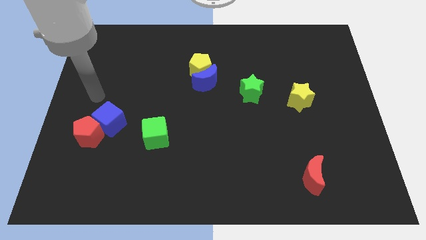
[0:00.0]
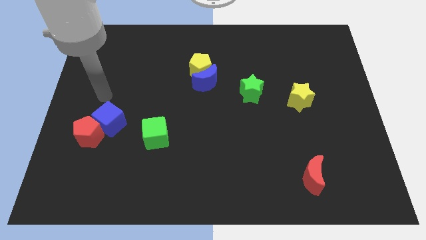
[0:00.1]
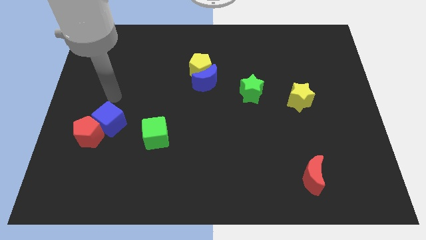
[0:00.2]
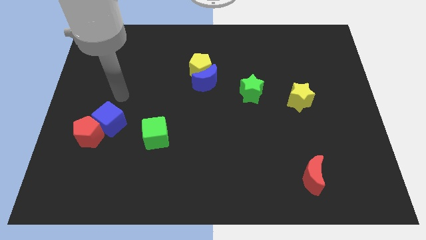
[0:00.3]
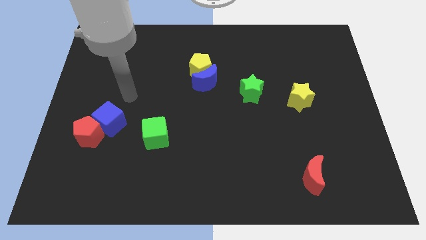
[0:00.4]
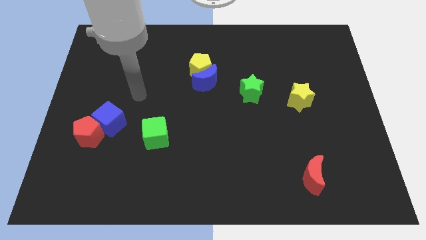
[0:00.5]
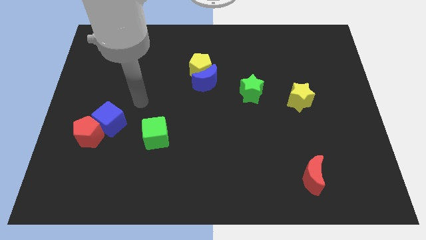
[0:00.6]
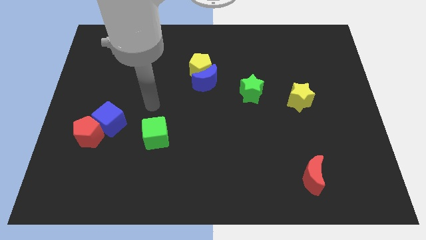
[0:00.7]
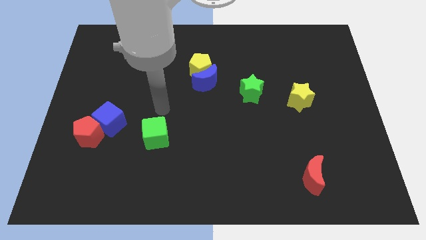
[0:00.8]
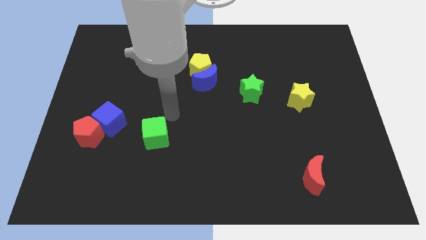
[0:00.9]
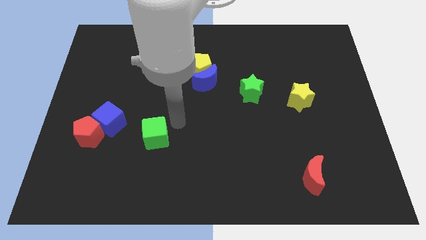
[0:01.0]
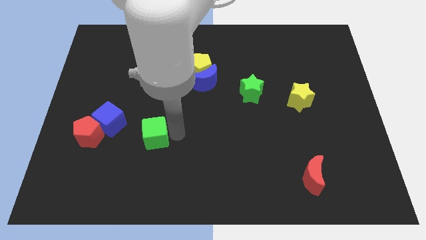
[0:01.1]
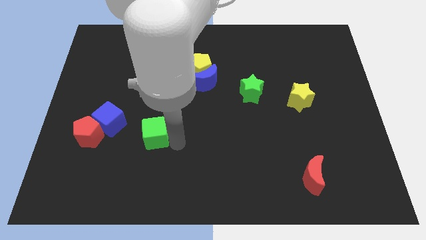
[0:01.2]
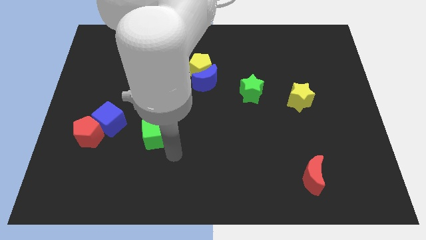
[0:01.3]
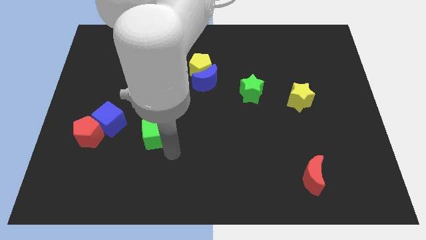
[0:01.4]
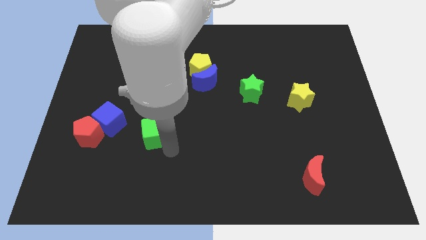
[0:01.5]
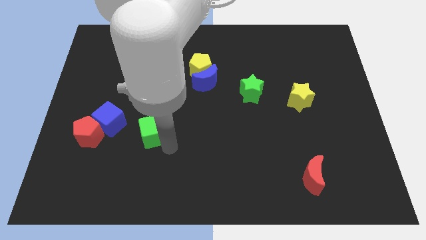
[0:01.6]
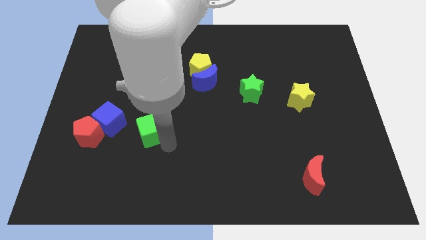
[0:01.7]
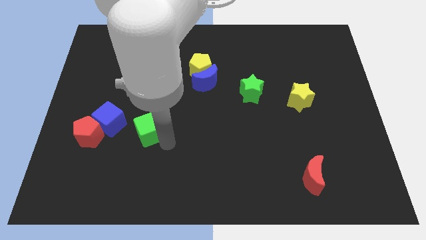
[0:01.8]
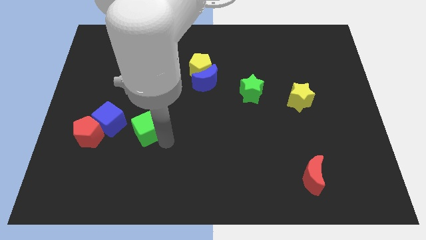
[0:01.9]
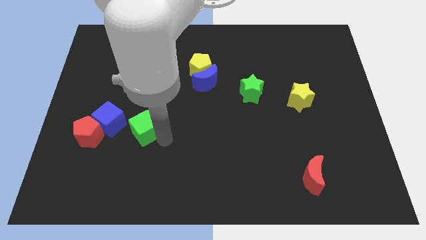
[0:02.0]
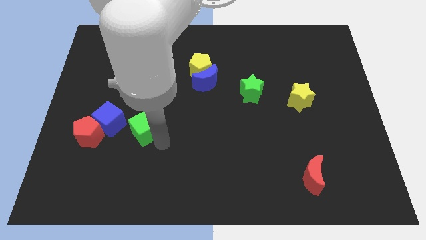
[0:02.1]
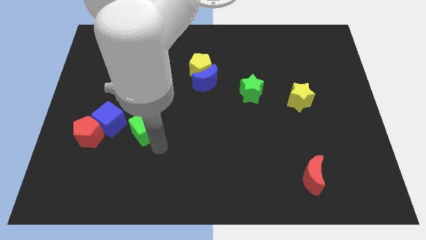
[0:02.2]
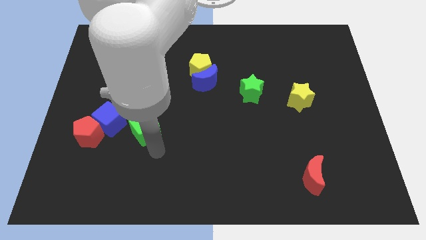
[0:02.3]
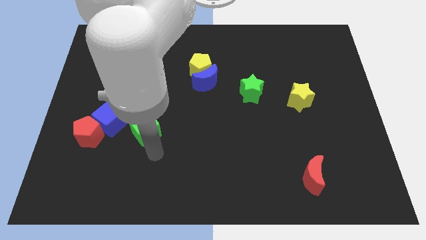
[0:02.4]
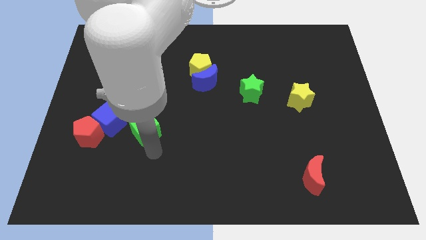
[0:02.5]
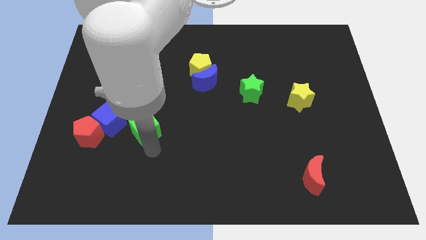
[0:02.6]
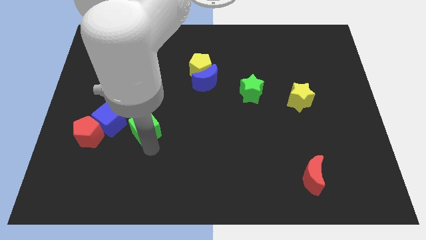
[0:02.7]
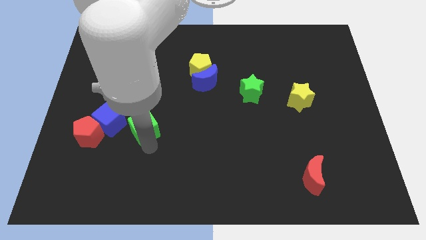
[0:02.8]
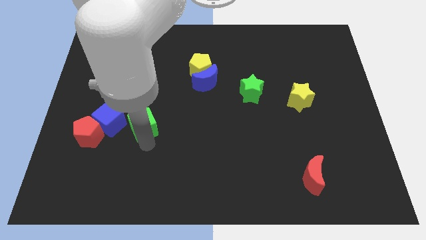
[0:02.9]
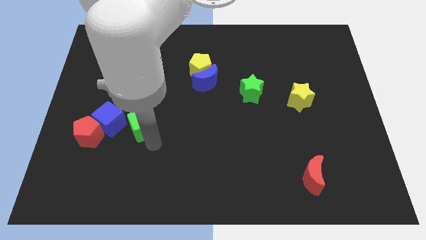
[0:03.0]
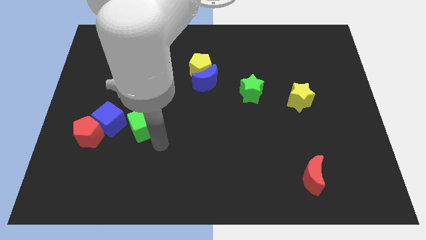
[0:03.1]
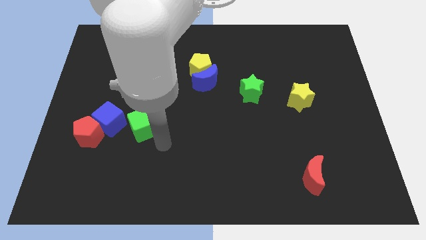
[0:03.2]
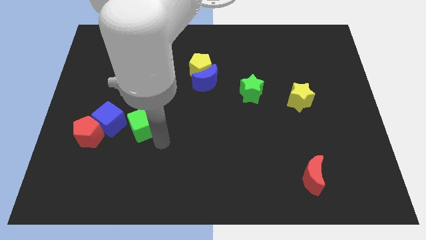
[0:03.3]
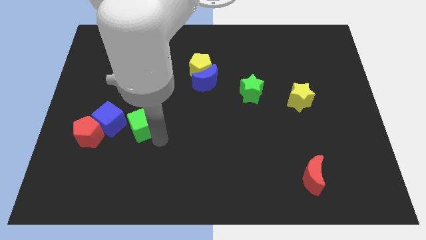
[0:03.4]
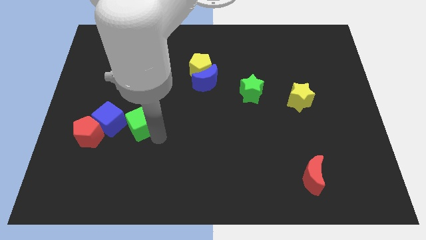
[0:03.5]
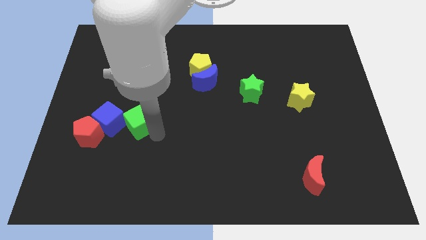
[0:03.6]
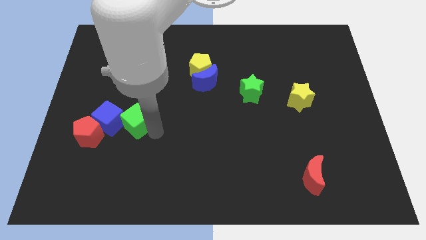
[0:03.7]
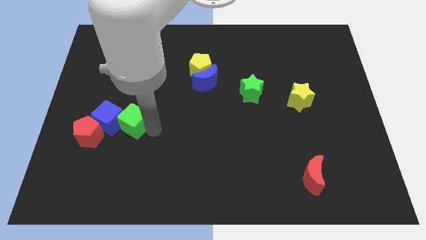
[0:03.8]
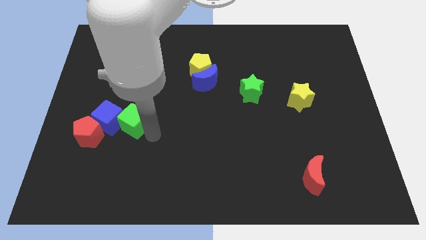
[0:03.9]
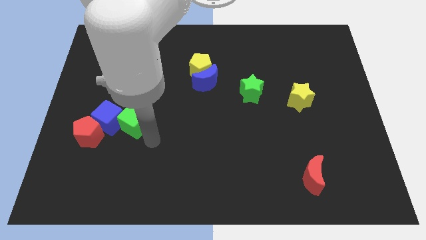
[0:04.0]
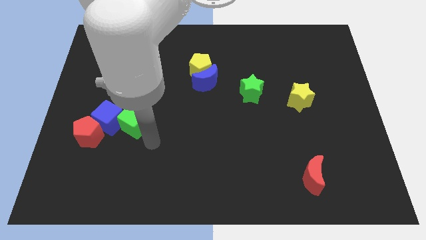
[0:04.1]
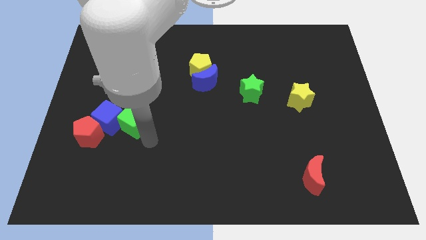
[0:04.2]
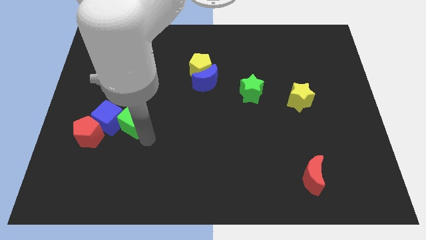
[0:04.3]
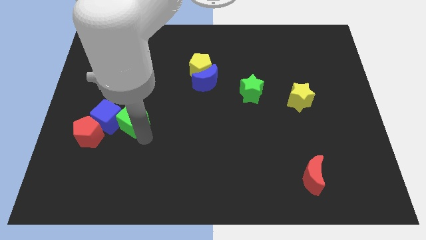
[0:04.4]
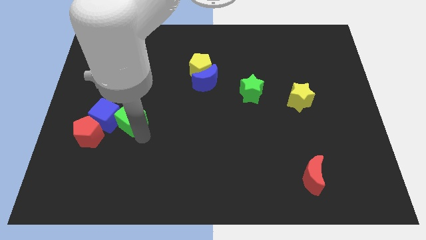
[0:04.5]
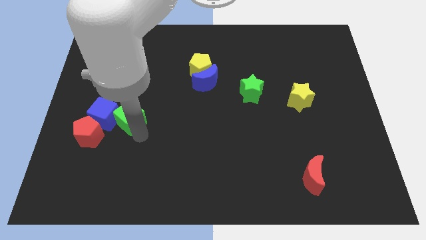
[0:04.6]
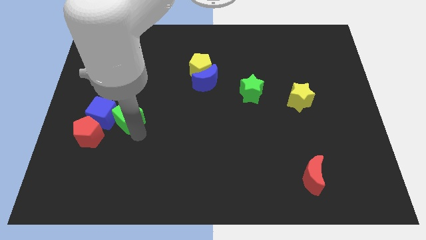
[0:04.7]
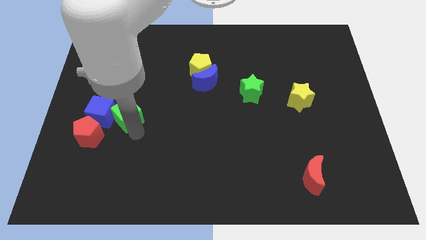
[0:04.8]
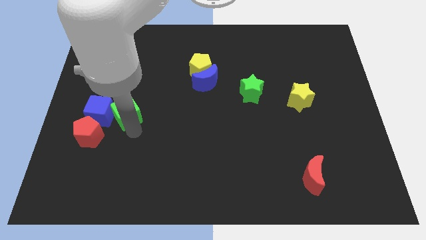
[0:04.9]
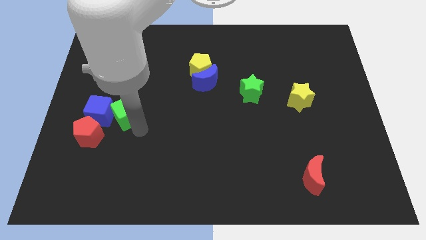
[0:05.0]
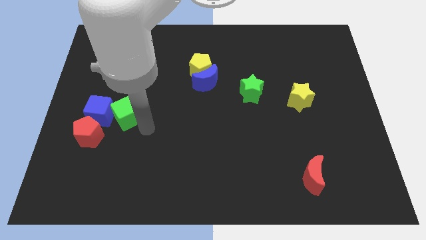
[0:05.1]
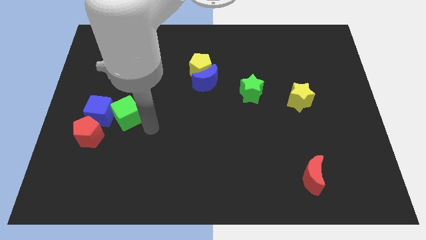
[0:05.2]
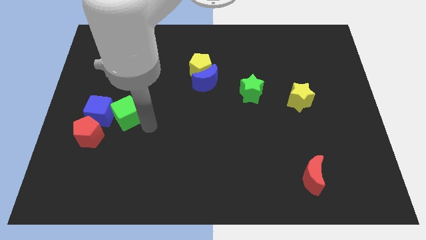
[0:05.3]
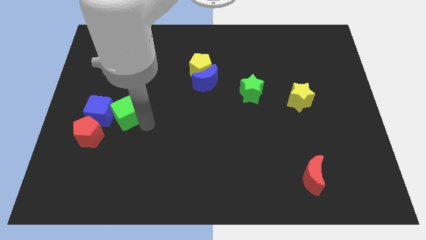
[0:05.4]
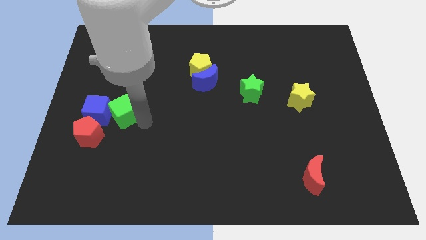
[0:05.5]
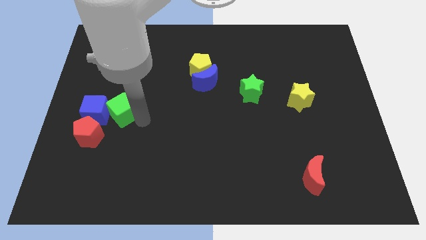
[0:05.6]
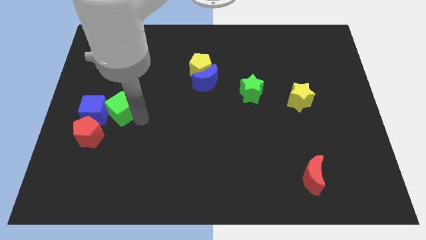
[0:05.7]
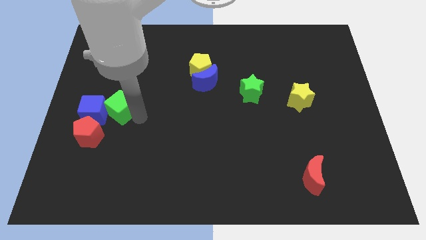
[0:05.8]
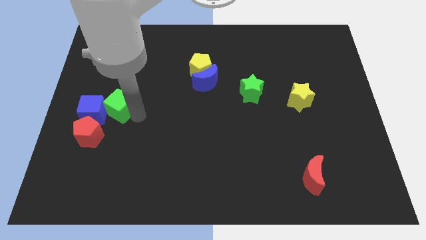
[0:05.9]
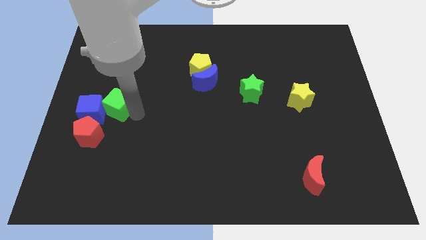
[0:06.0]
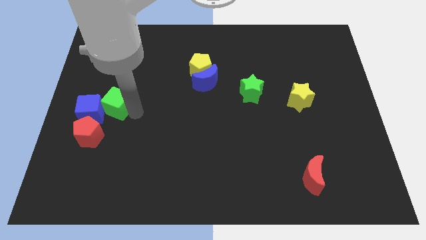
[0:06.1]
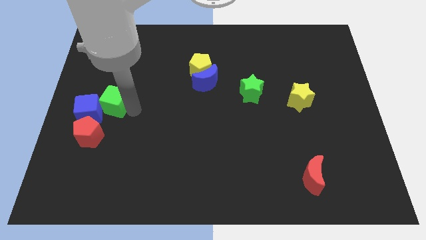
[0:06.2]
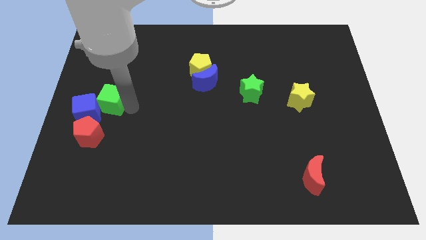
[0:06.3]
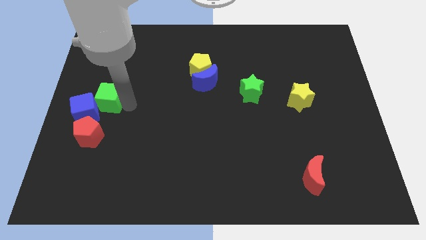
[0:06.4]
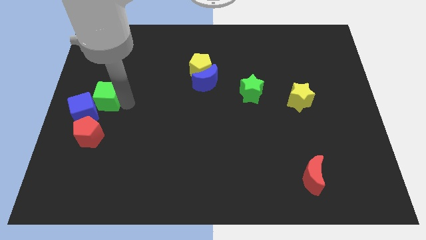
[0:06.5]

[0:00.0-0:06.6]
put the green cube to the left side of the board
